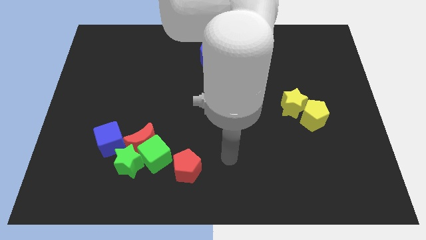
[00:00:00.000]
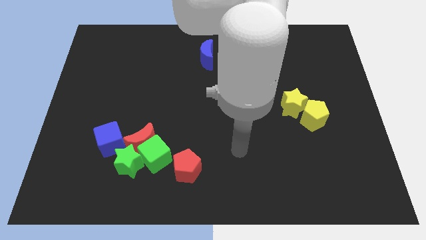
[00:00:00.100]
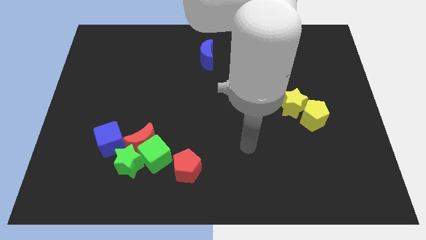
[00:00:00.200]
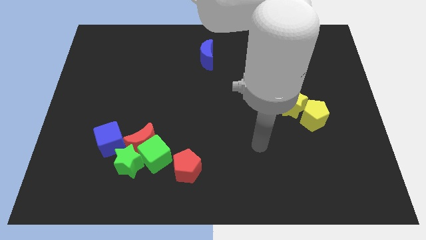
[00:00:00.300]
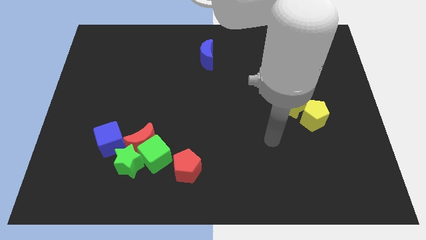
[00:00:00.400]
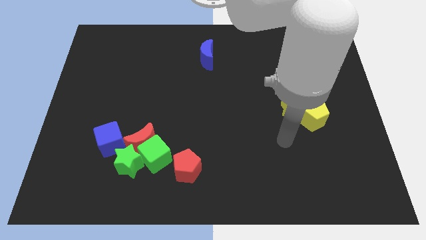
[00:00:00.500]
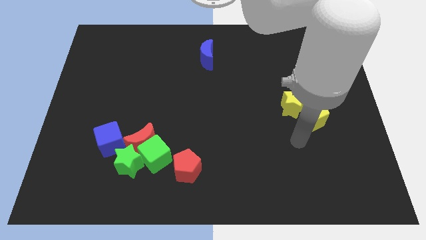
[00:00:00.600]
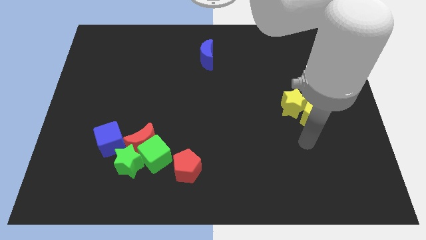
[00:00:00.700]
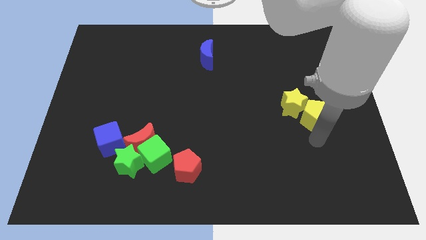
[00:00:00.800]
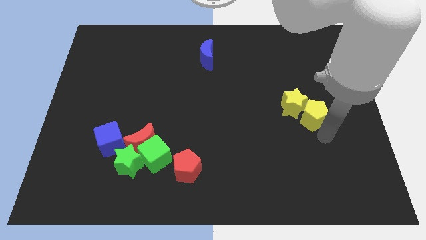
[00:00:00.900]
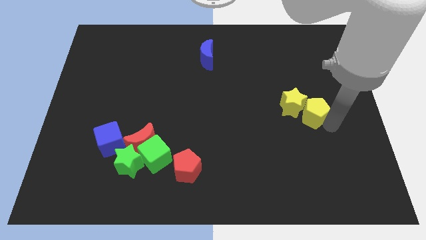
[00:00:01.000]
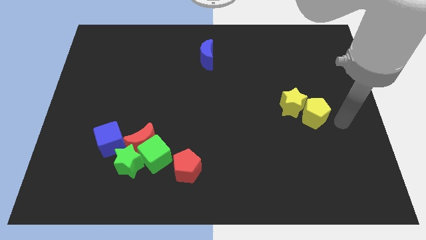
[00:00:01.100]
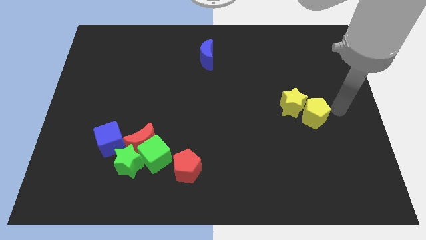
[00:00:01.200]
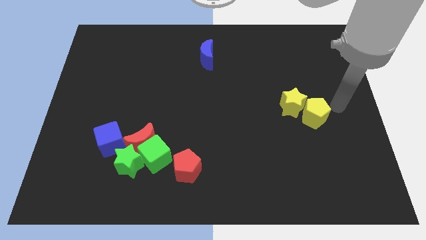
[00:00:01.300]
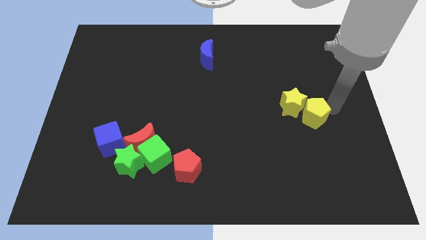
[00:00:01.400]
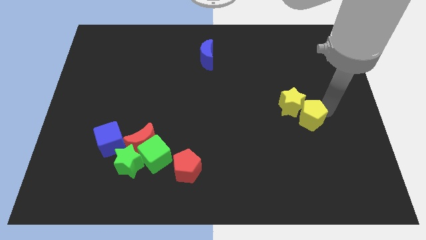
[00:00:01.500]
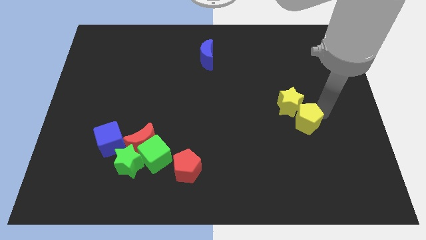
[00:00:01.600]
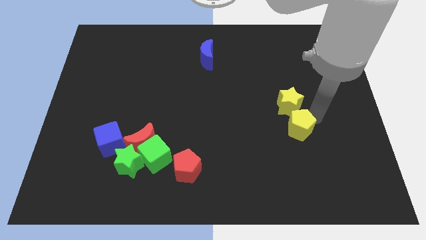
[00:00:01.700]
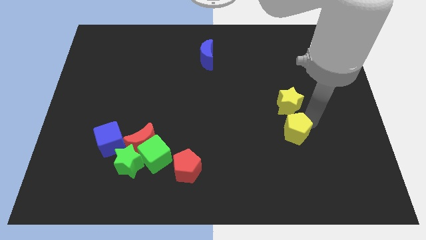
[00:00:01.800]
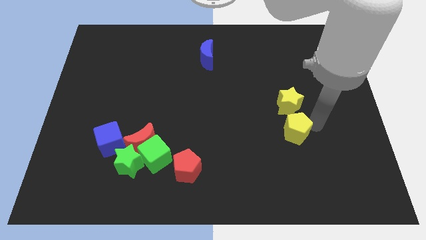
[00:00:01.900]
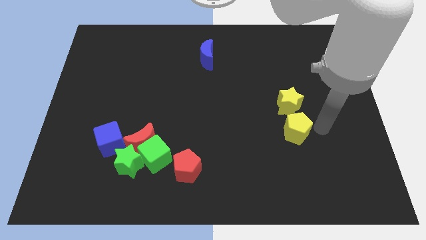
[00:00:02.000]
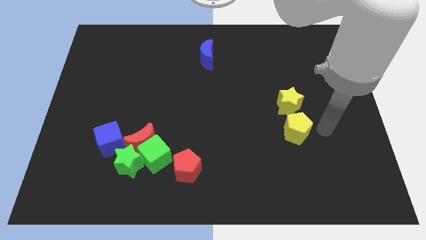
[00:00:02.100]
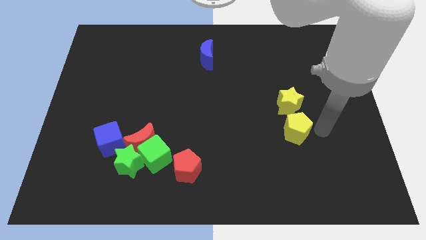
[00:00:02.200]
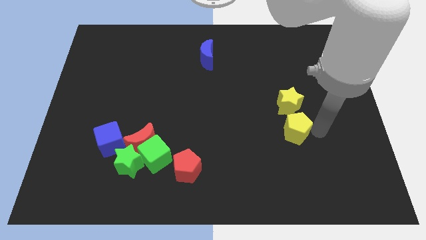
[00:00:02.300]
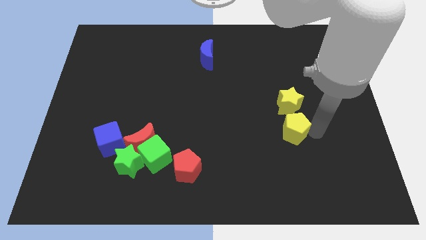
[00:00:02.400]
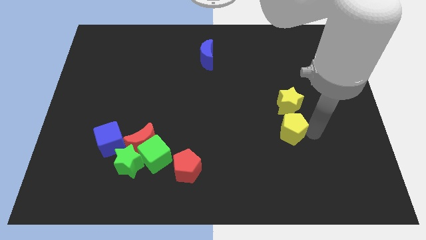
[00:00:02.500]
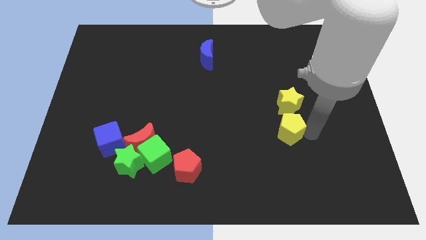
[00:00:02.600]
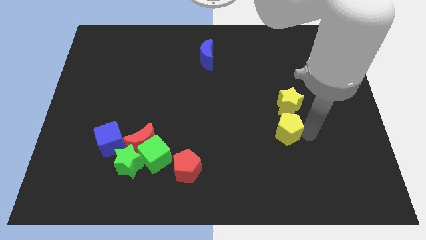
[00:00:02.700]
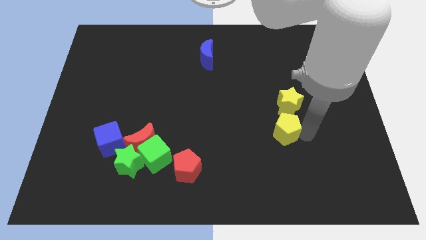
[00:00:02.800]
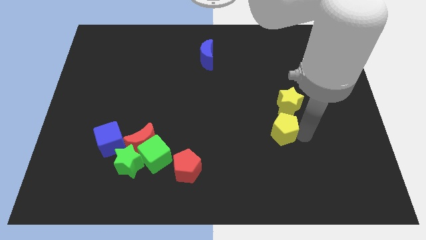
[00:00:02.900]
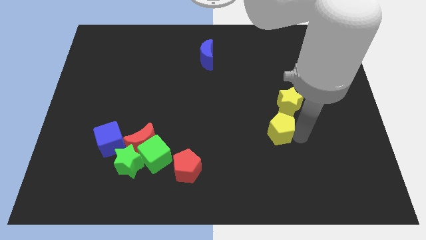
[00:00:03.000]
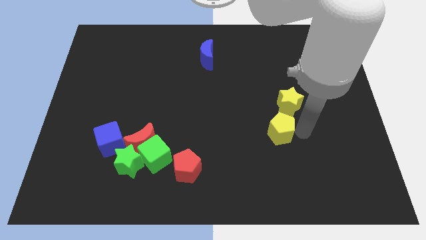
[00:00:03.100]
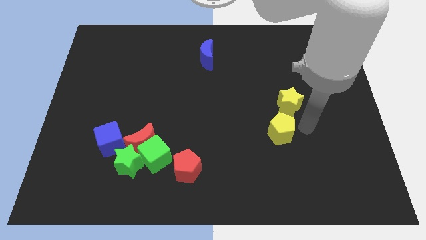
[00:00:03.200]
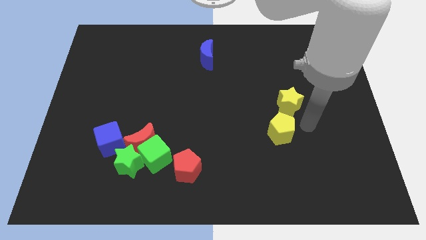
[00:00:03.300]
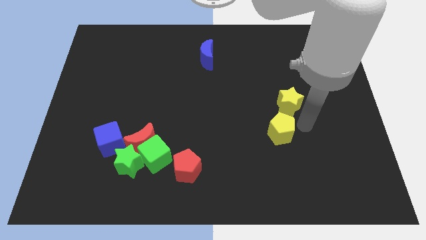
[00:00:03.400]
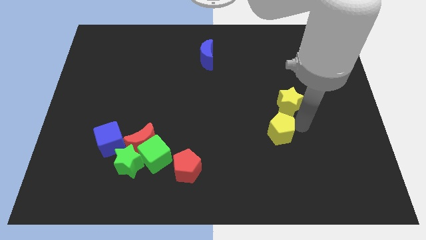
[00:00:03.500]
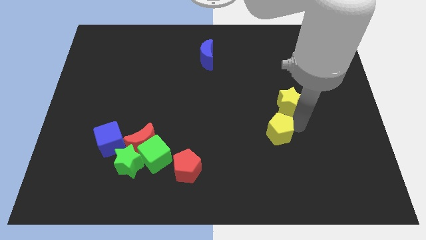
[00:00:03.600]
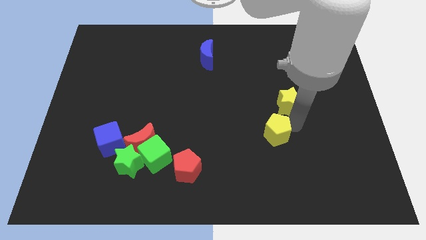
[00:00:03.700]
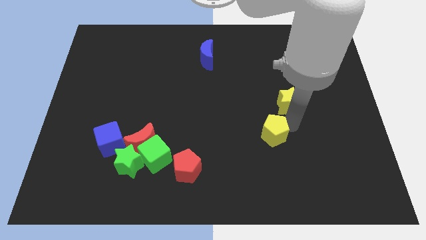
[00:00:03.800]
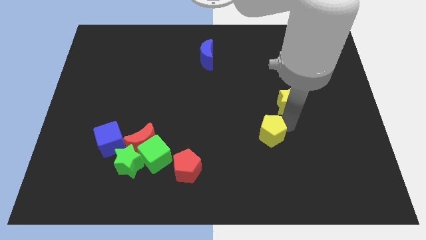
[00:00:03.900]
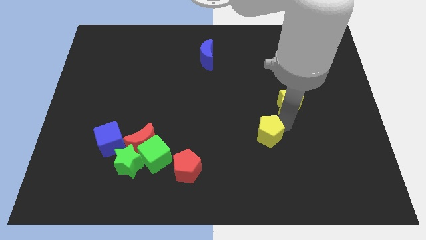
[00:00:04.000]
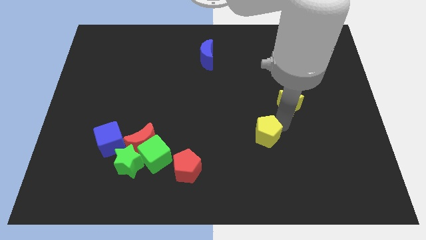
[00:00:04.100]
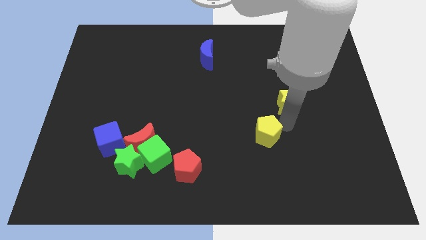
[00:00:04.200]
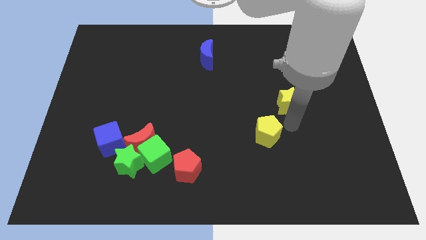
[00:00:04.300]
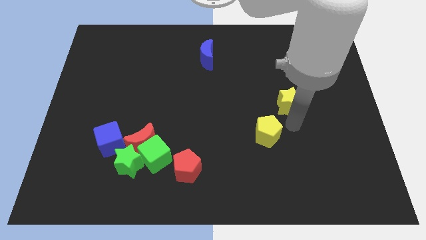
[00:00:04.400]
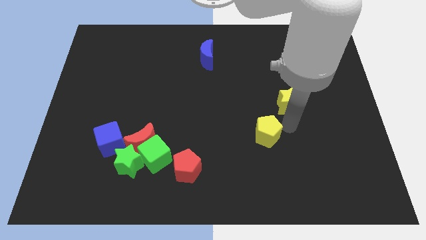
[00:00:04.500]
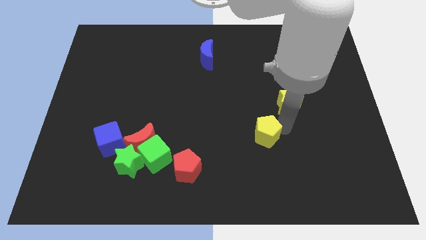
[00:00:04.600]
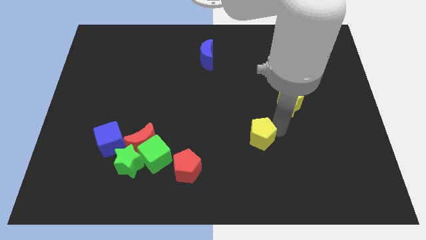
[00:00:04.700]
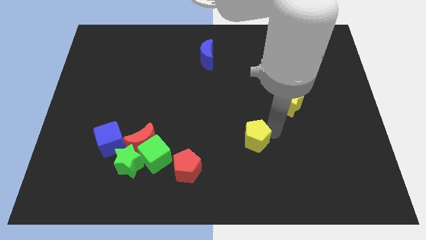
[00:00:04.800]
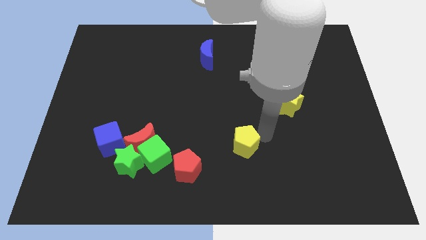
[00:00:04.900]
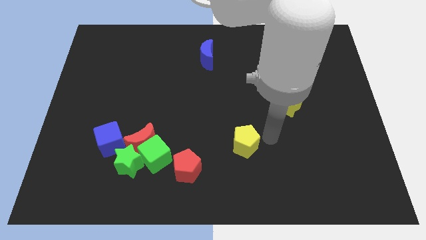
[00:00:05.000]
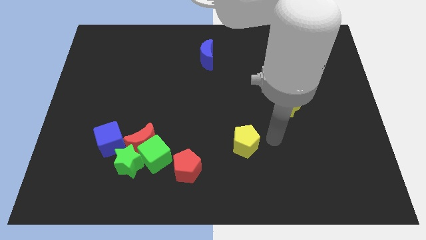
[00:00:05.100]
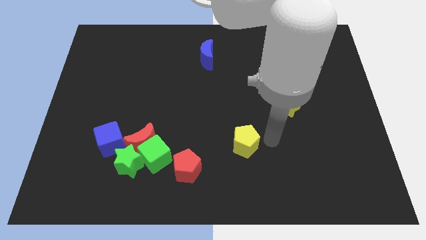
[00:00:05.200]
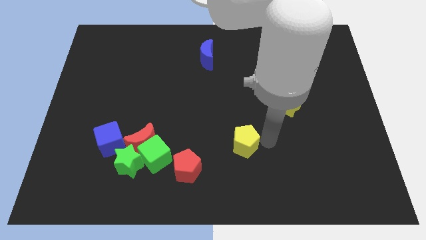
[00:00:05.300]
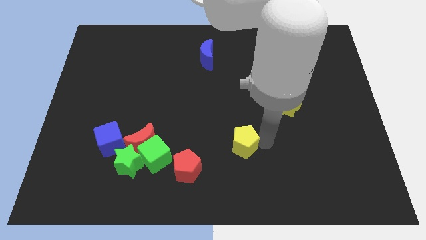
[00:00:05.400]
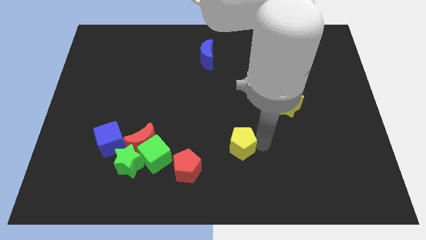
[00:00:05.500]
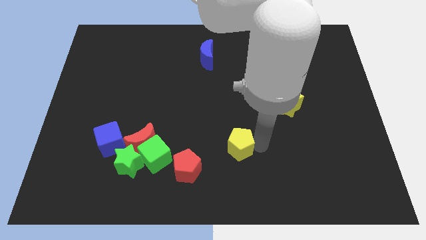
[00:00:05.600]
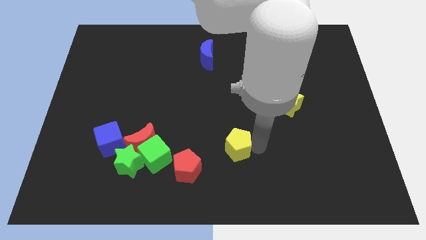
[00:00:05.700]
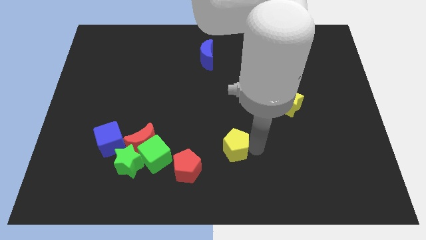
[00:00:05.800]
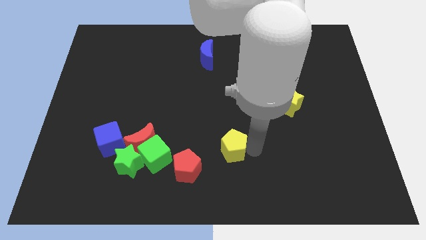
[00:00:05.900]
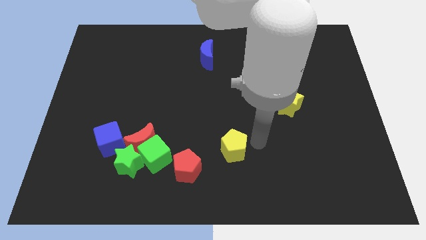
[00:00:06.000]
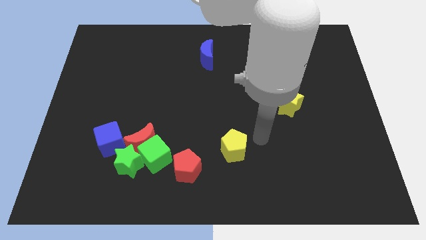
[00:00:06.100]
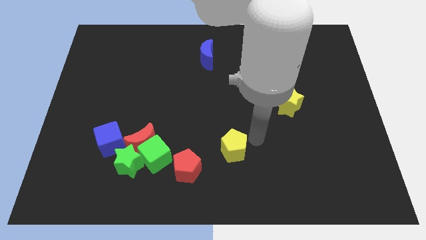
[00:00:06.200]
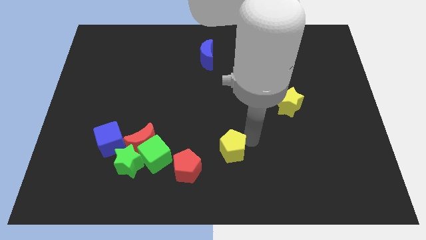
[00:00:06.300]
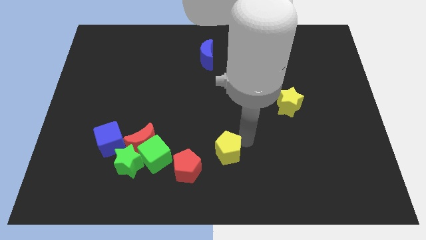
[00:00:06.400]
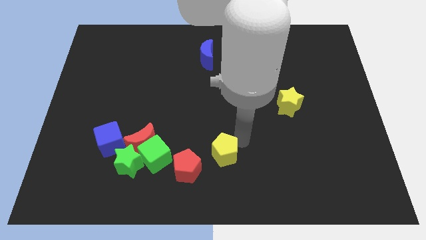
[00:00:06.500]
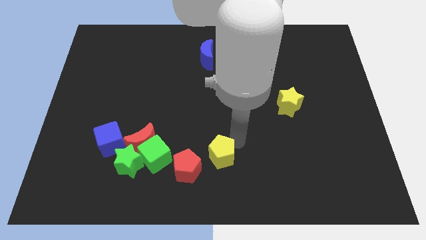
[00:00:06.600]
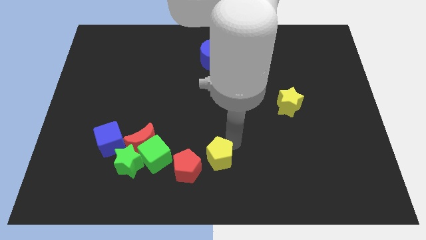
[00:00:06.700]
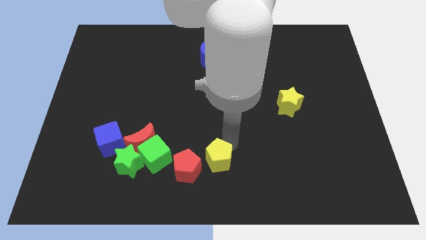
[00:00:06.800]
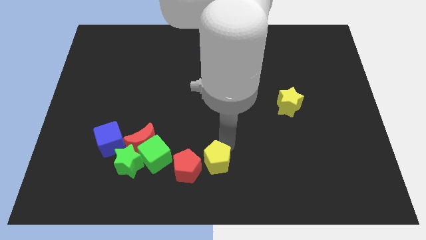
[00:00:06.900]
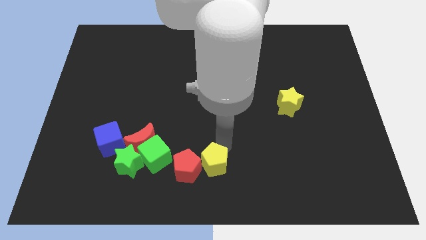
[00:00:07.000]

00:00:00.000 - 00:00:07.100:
push the yellow pentagon next to the red pentagon
